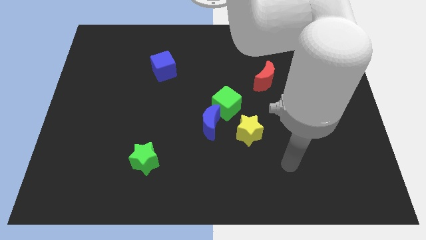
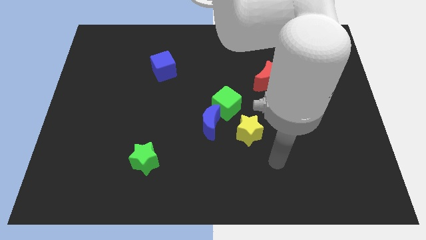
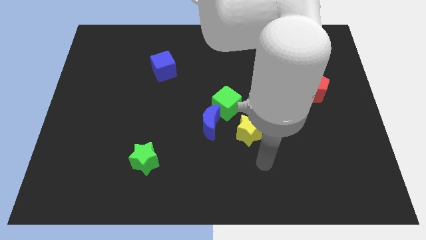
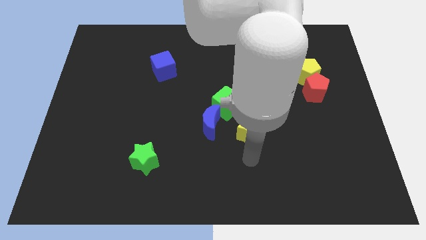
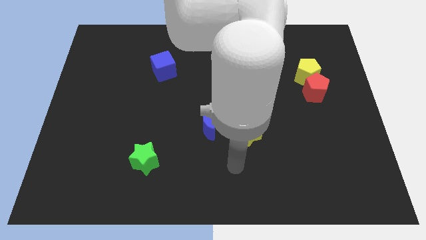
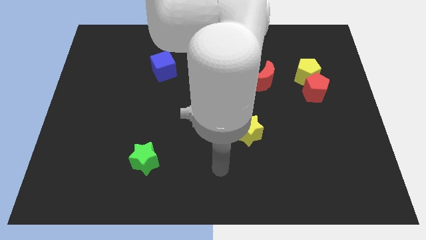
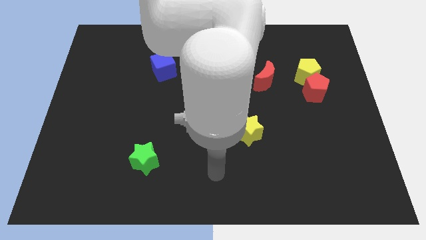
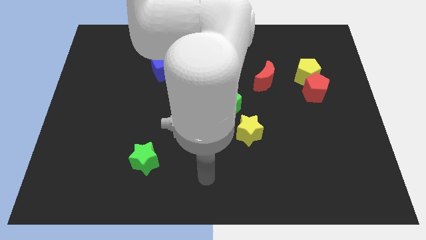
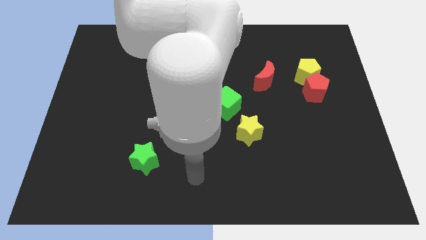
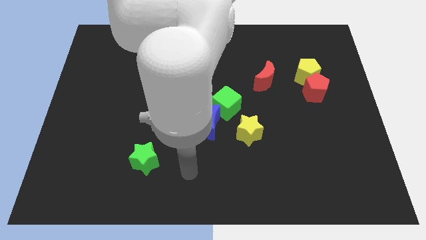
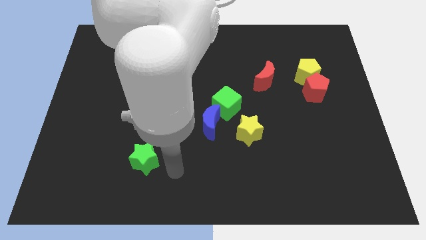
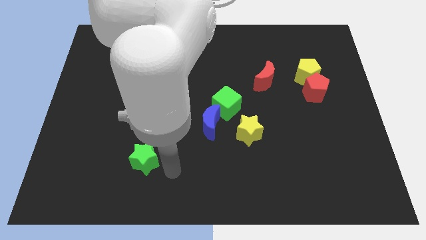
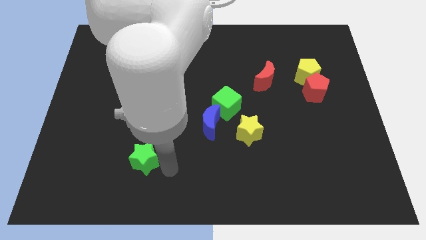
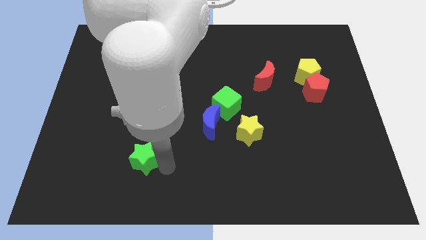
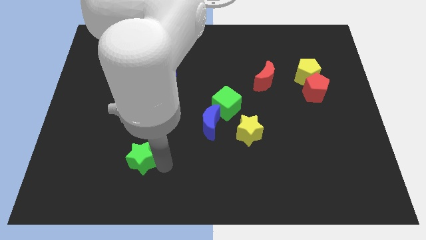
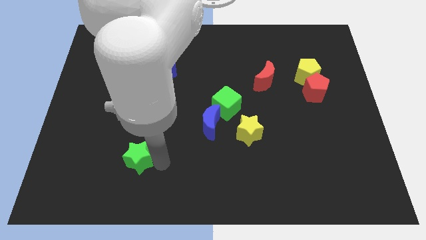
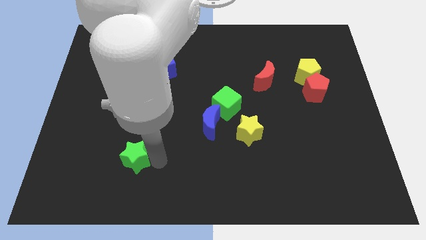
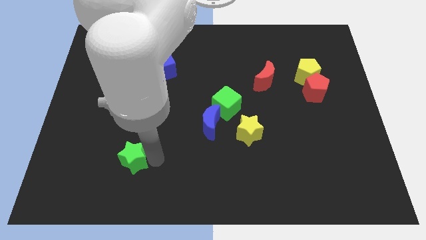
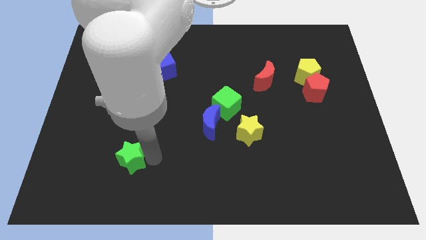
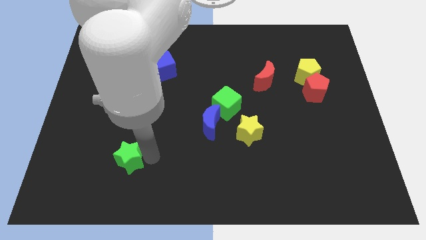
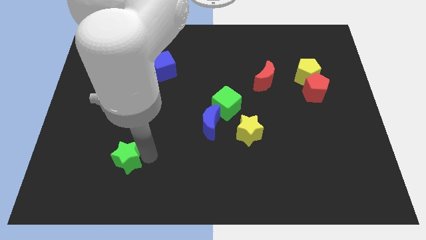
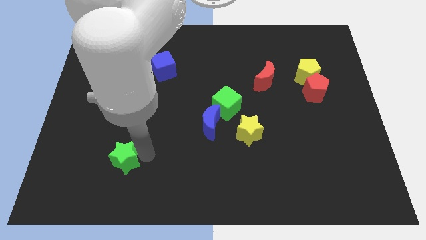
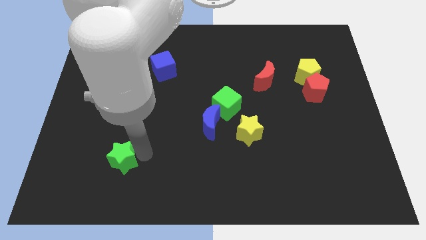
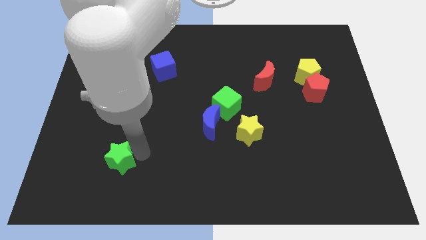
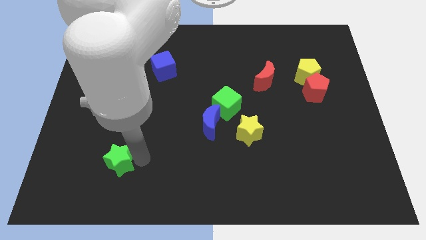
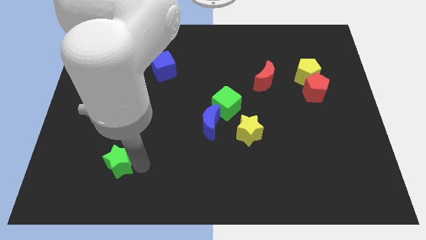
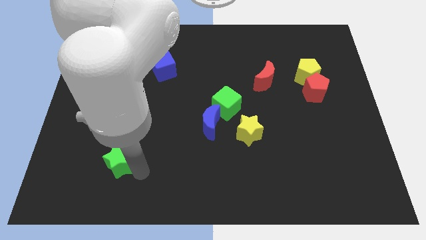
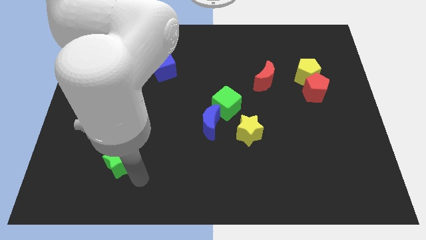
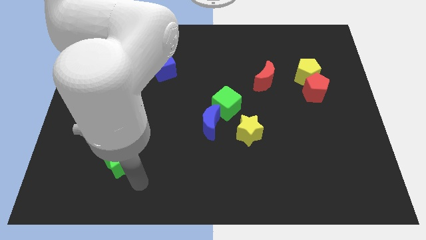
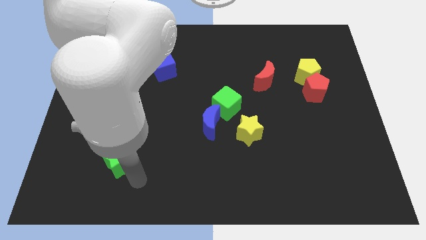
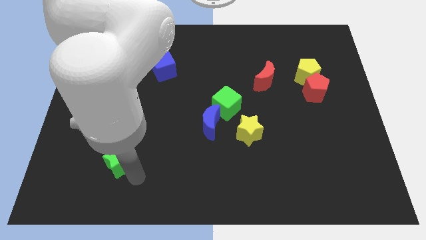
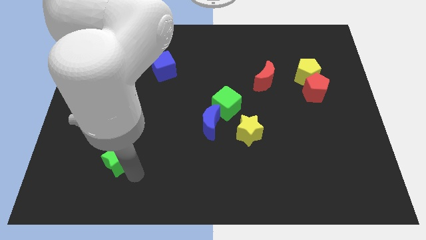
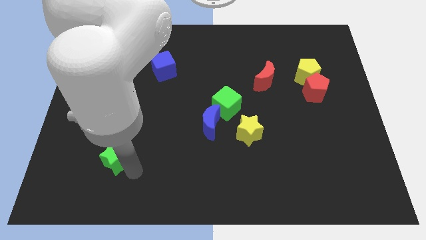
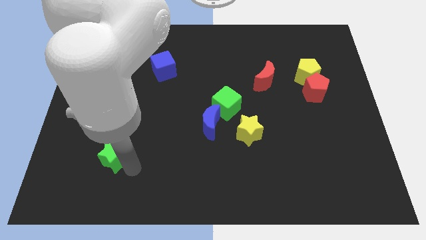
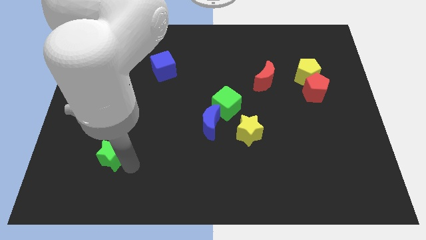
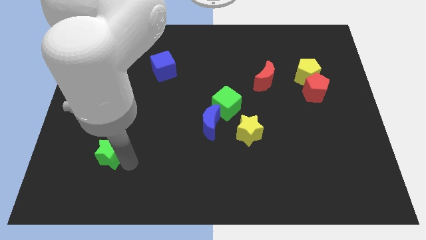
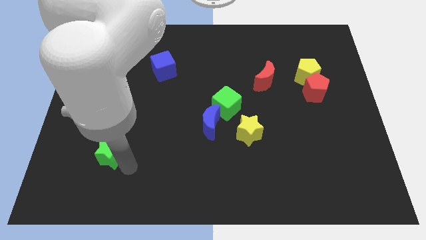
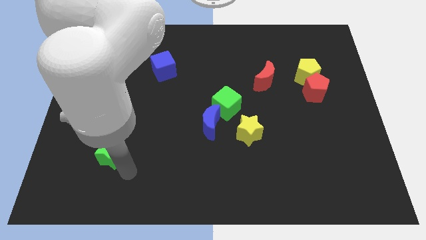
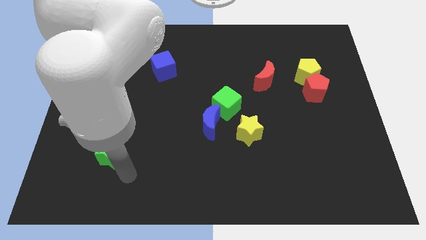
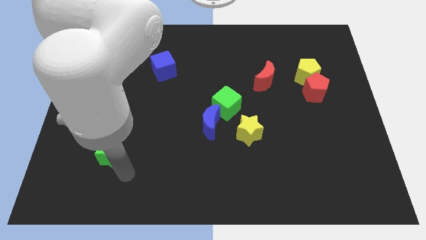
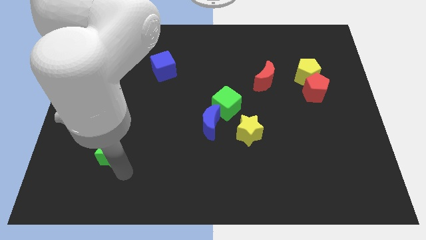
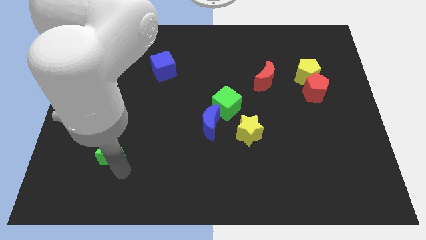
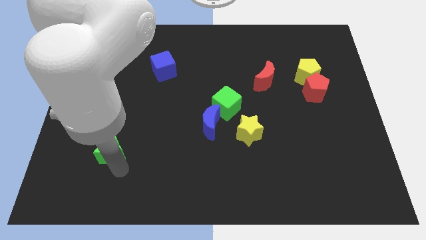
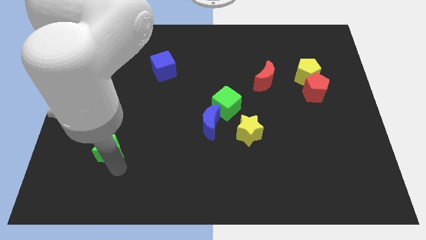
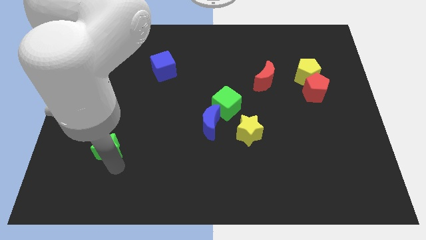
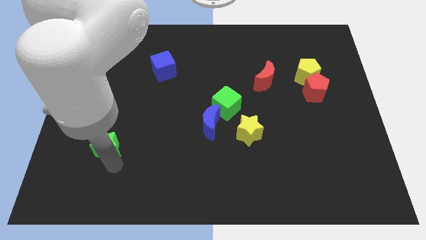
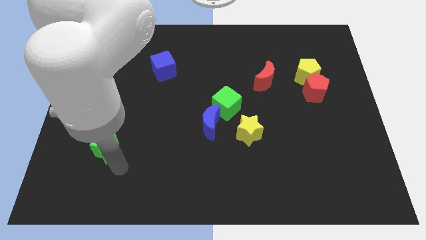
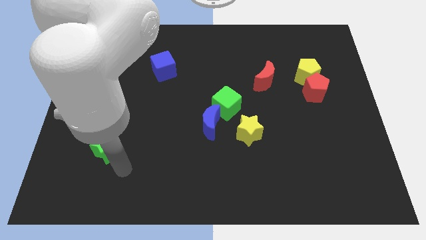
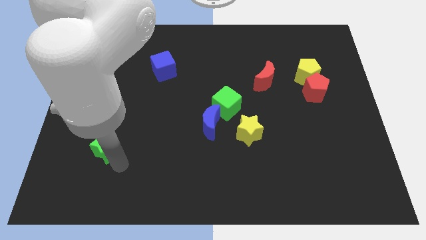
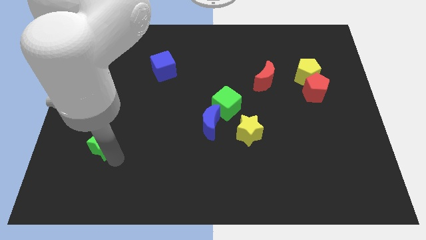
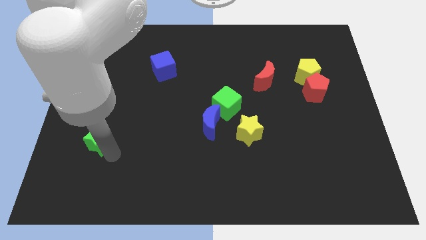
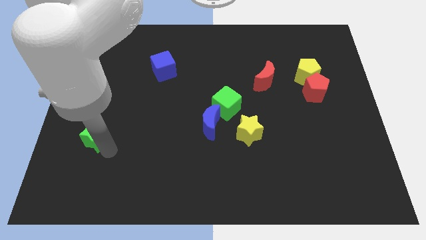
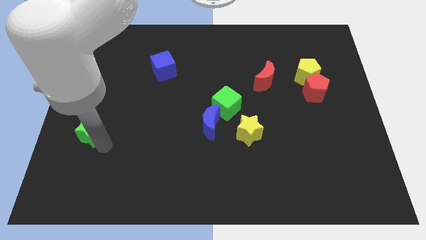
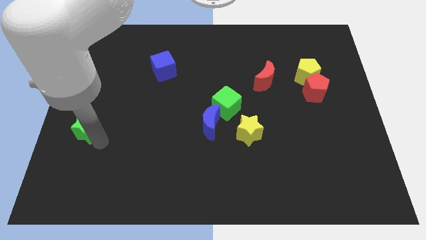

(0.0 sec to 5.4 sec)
put the green star to the center left
